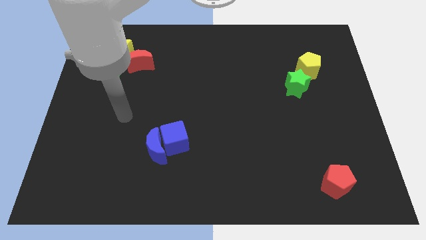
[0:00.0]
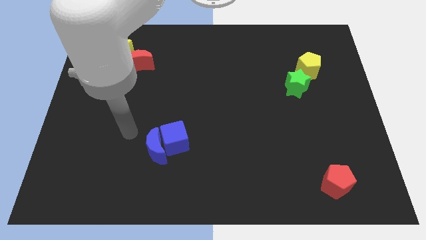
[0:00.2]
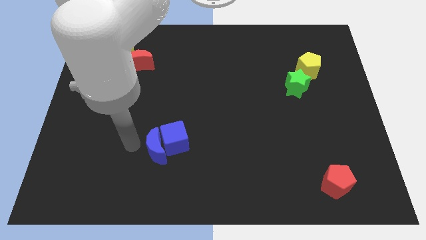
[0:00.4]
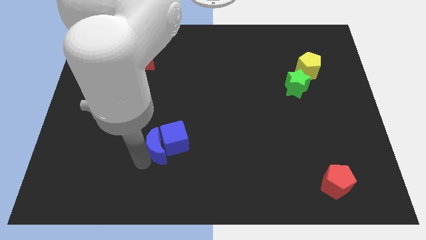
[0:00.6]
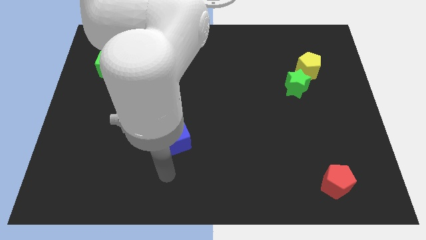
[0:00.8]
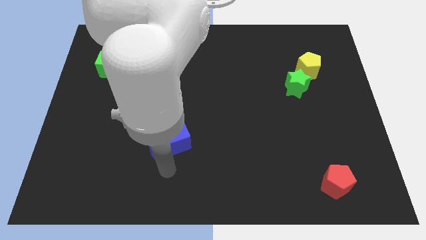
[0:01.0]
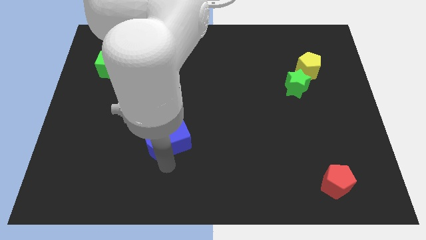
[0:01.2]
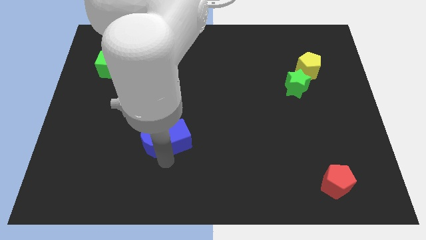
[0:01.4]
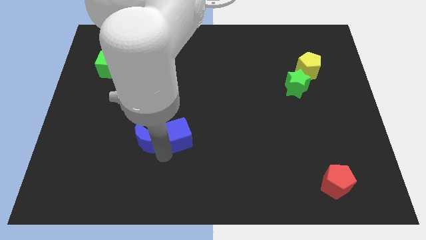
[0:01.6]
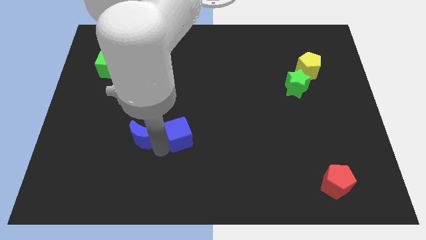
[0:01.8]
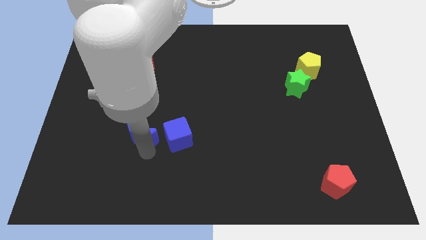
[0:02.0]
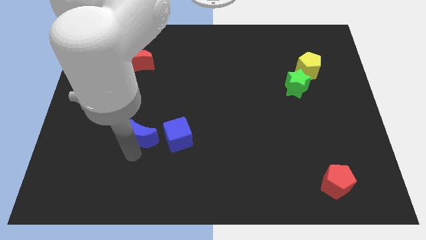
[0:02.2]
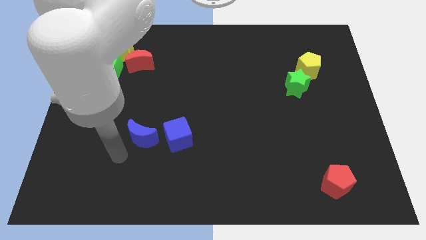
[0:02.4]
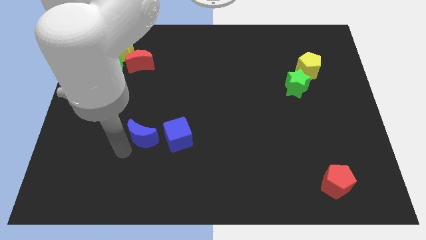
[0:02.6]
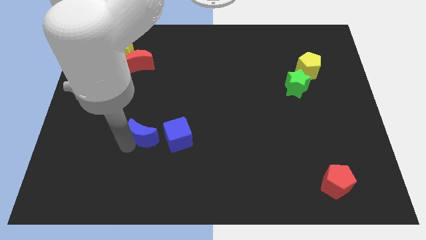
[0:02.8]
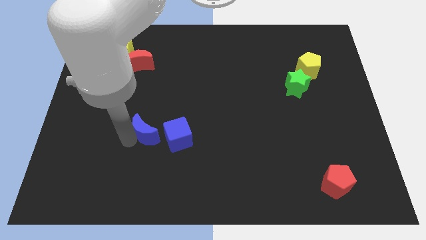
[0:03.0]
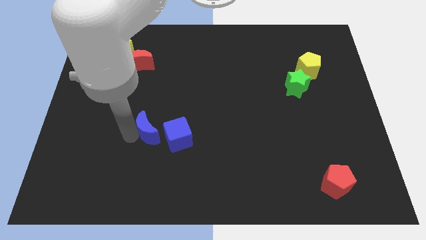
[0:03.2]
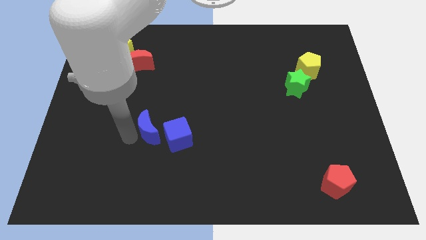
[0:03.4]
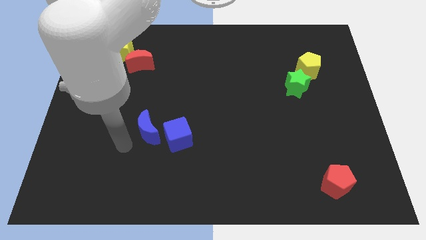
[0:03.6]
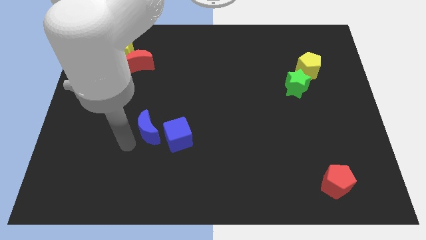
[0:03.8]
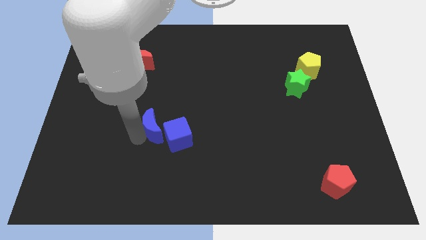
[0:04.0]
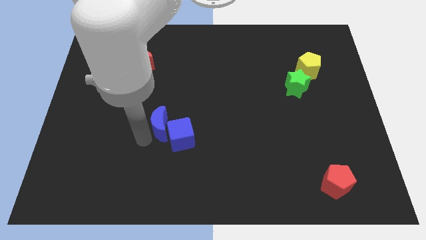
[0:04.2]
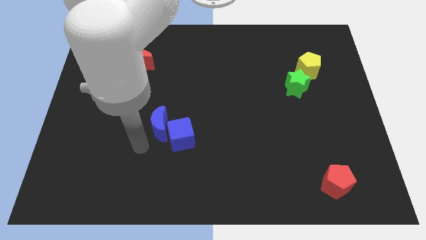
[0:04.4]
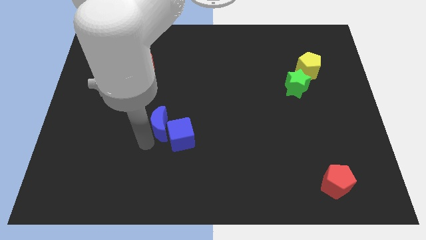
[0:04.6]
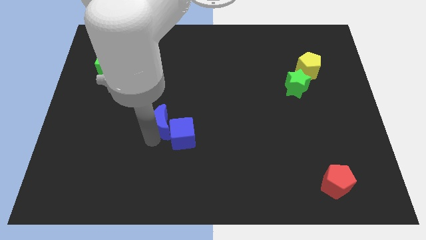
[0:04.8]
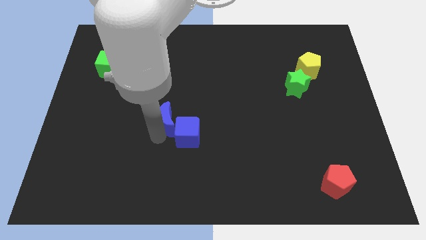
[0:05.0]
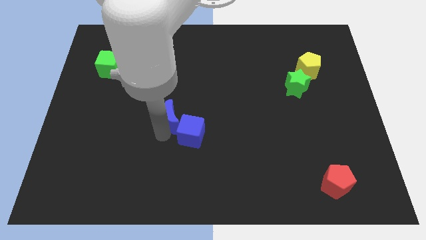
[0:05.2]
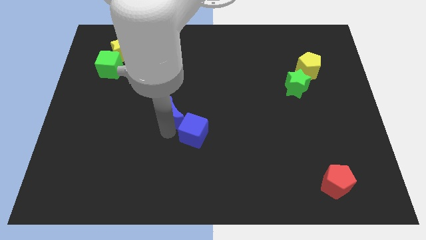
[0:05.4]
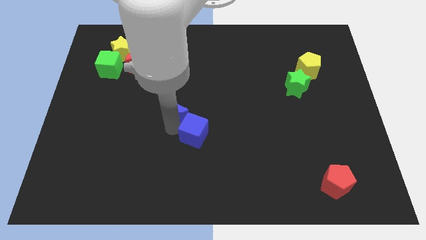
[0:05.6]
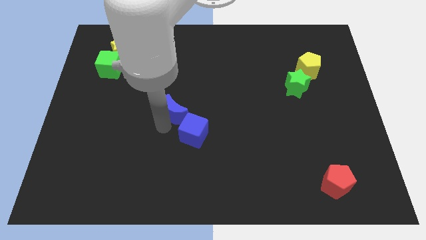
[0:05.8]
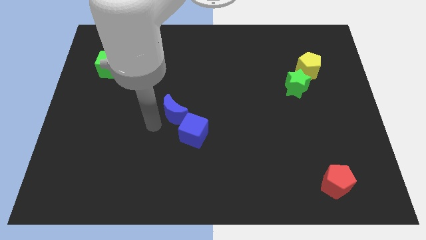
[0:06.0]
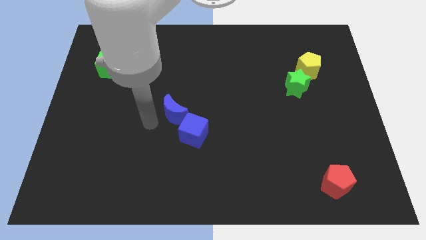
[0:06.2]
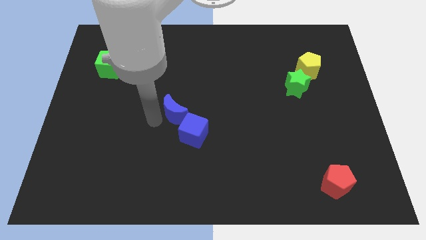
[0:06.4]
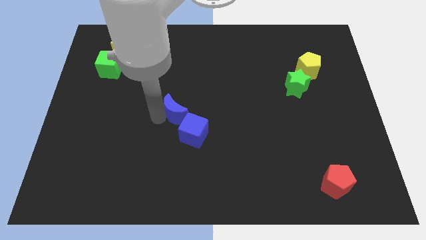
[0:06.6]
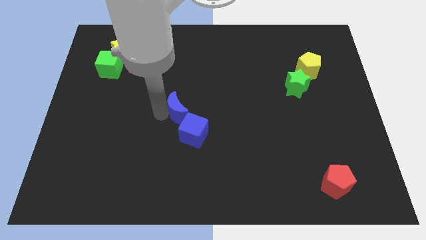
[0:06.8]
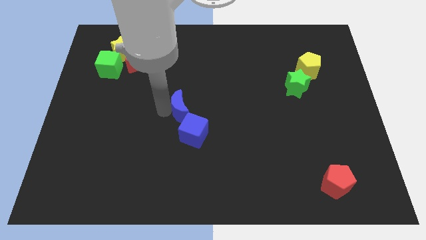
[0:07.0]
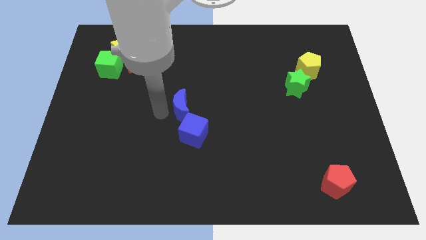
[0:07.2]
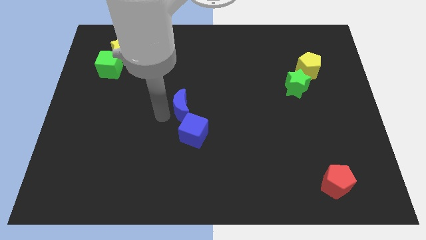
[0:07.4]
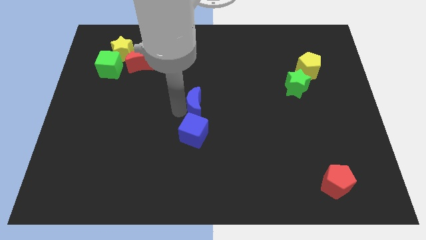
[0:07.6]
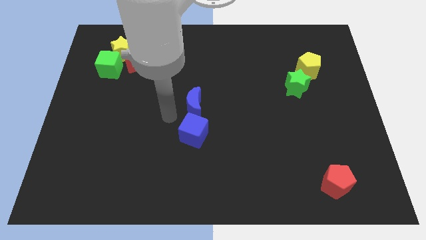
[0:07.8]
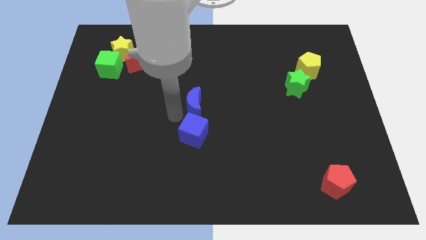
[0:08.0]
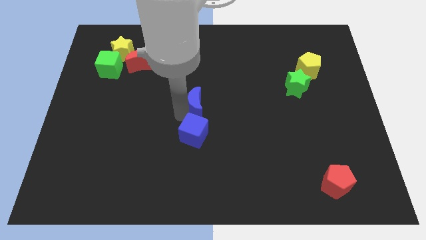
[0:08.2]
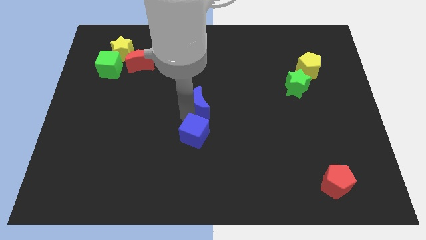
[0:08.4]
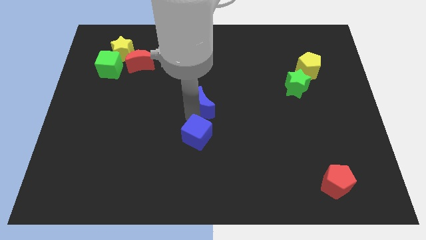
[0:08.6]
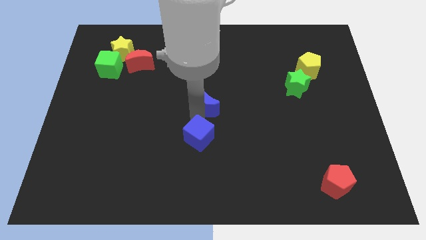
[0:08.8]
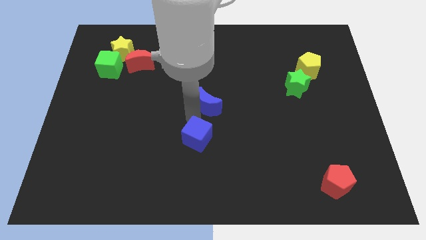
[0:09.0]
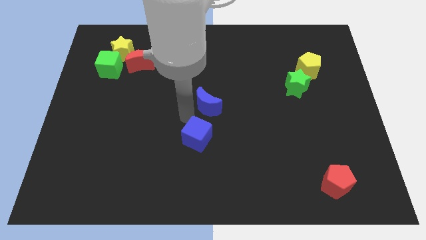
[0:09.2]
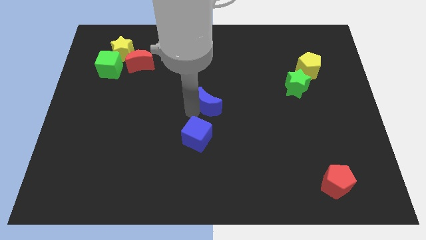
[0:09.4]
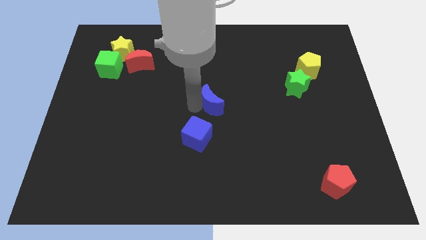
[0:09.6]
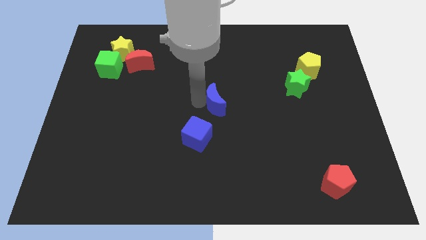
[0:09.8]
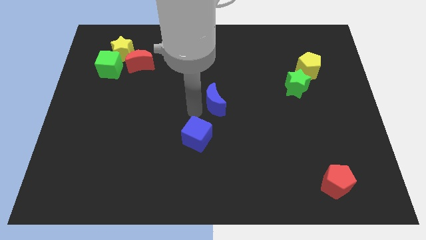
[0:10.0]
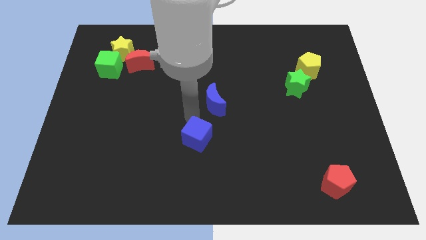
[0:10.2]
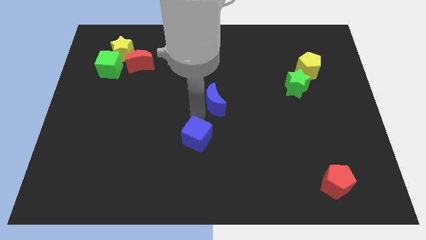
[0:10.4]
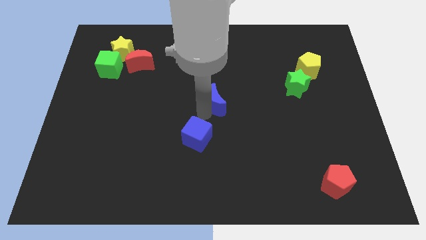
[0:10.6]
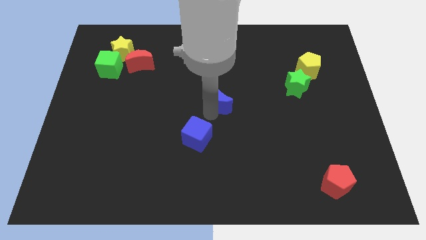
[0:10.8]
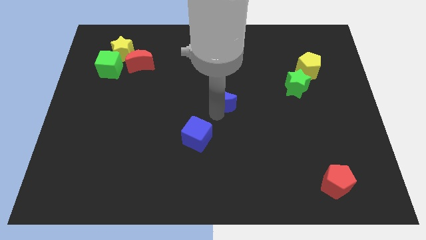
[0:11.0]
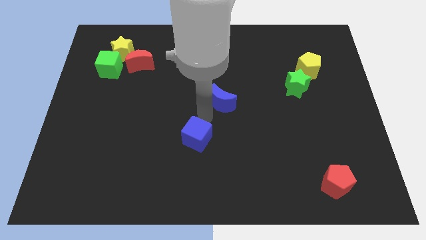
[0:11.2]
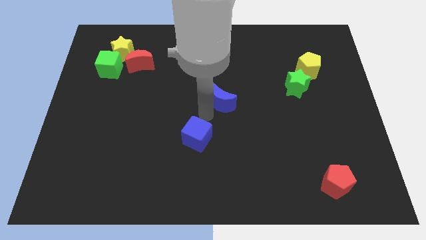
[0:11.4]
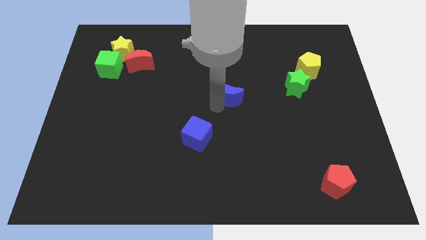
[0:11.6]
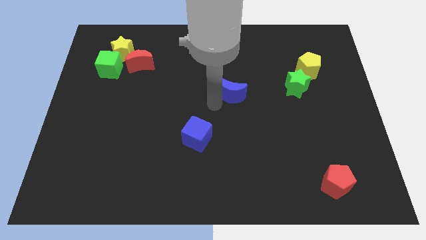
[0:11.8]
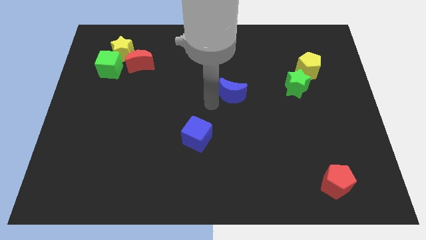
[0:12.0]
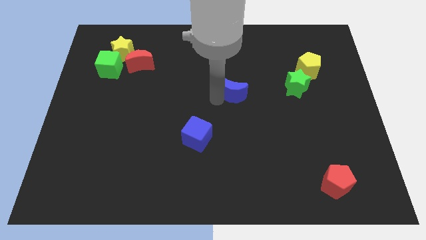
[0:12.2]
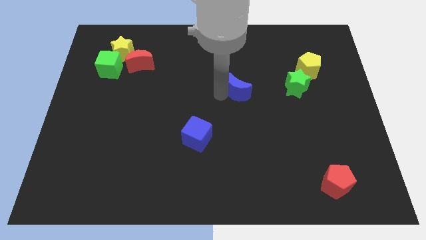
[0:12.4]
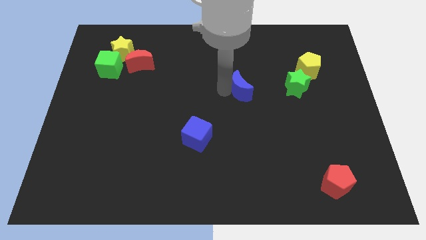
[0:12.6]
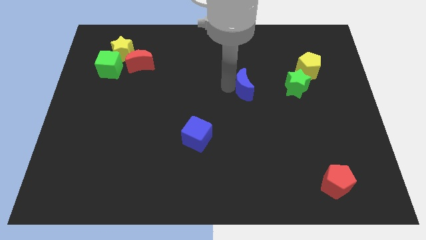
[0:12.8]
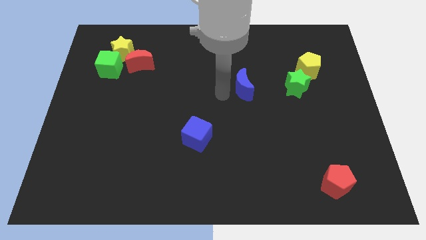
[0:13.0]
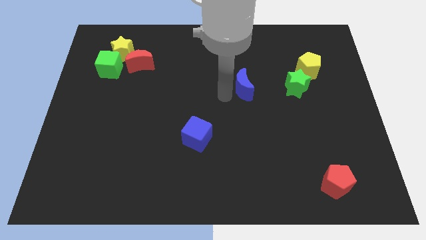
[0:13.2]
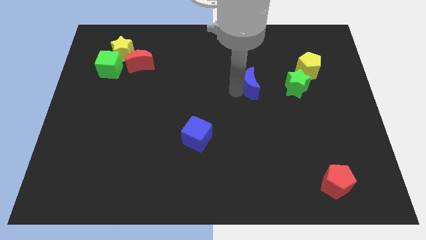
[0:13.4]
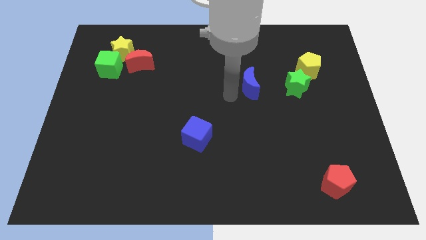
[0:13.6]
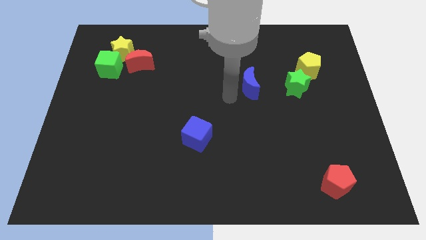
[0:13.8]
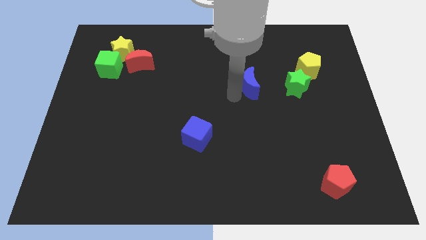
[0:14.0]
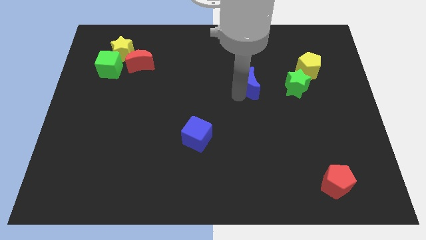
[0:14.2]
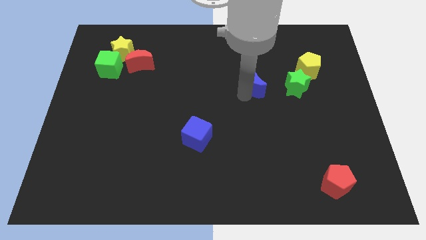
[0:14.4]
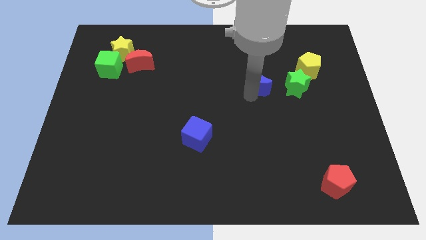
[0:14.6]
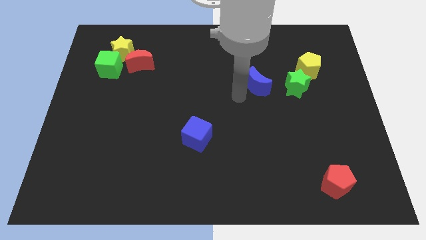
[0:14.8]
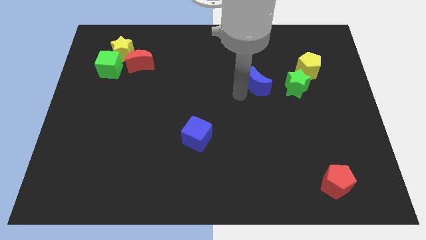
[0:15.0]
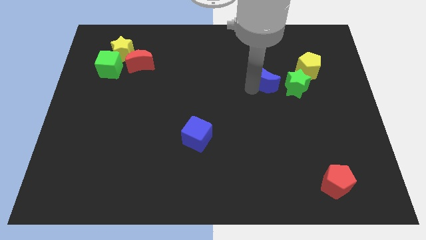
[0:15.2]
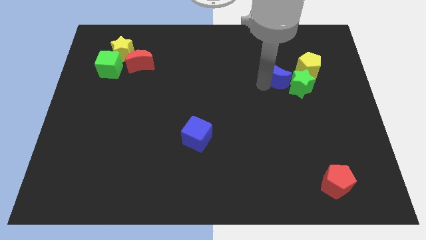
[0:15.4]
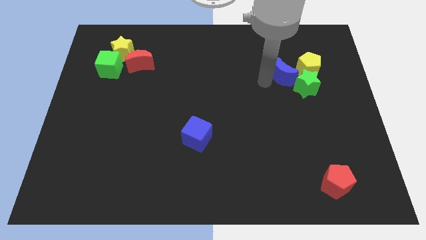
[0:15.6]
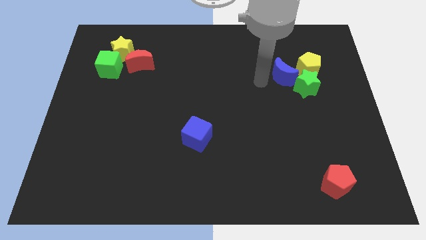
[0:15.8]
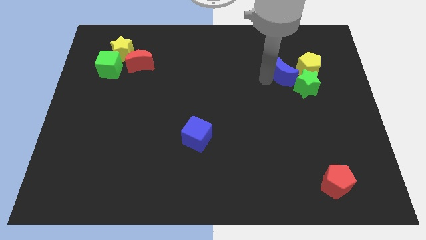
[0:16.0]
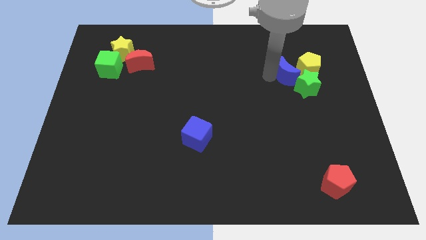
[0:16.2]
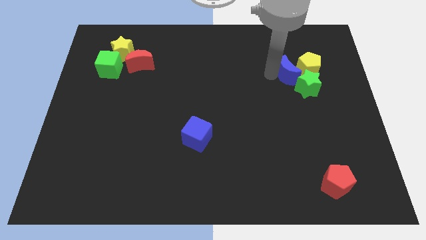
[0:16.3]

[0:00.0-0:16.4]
put the blue moon next to the yellow pentagon
